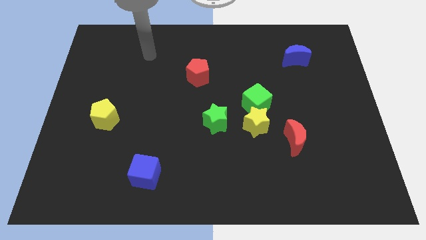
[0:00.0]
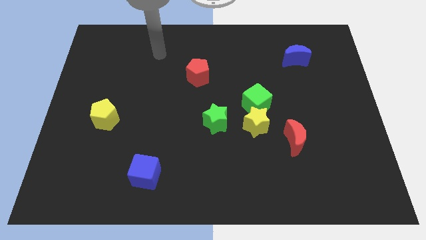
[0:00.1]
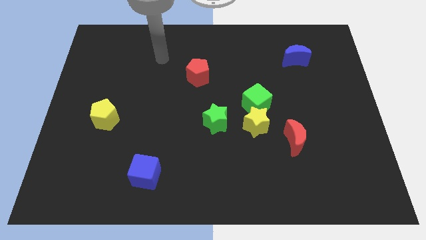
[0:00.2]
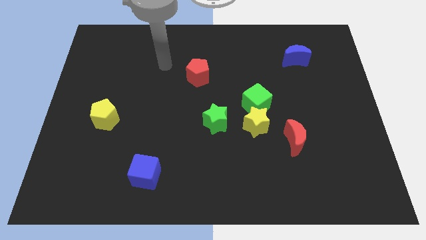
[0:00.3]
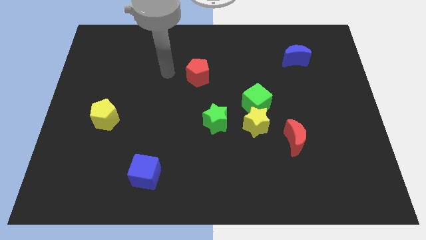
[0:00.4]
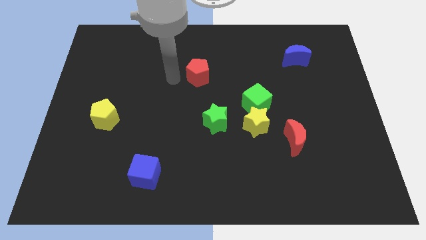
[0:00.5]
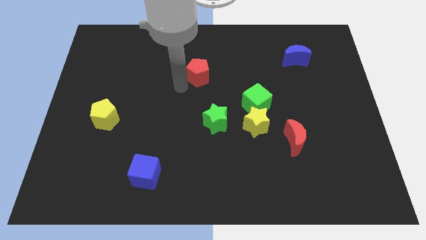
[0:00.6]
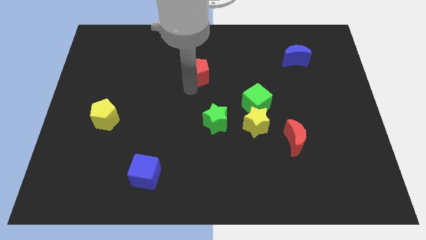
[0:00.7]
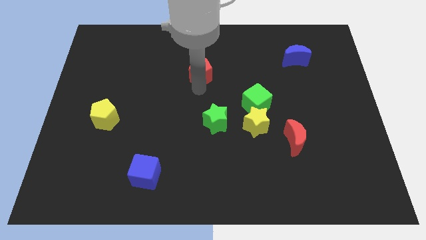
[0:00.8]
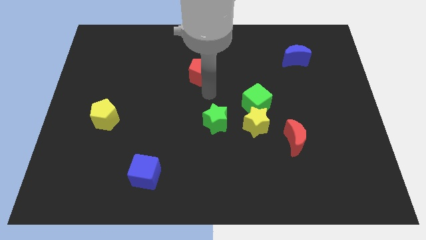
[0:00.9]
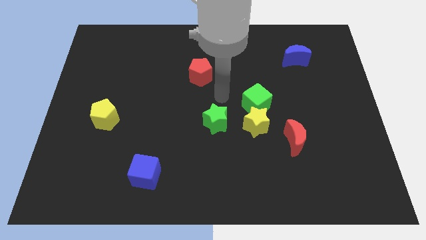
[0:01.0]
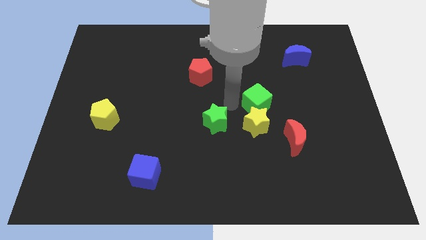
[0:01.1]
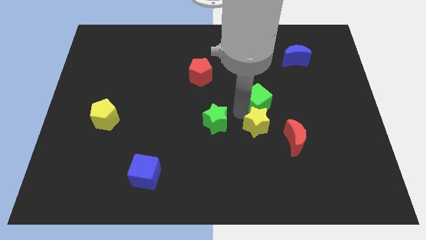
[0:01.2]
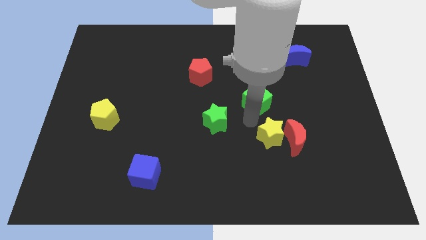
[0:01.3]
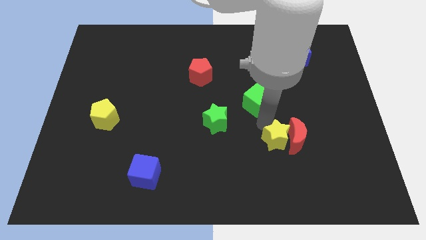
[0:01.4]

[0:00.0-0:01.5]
move the green cube away from the yellow star

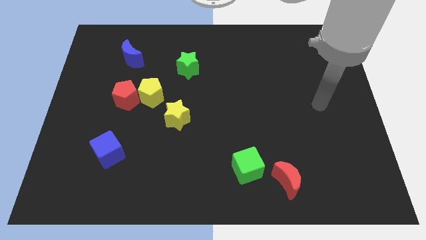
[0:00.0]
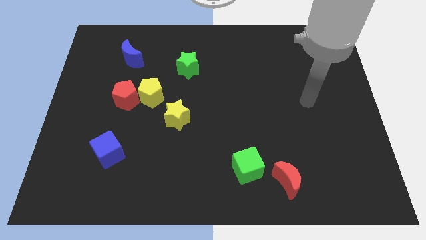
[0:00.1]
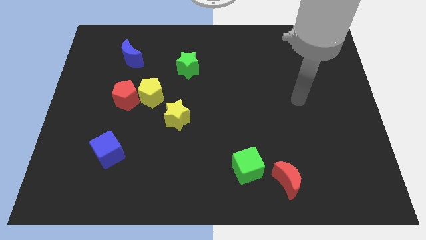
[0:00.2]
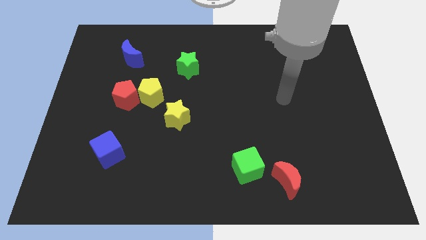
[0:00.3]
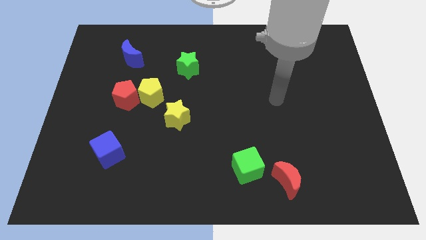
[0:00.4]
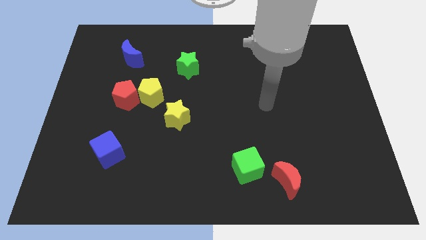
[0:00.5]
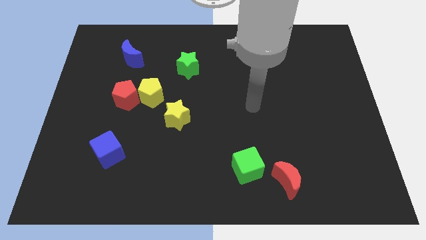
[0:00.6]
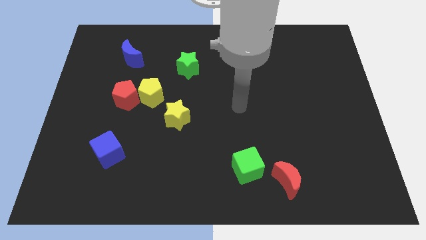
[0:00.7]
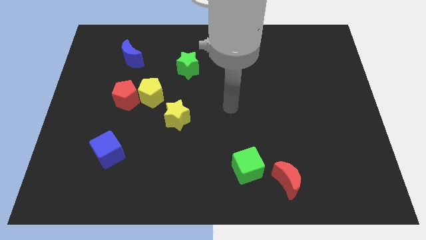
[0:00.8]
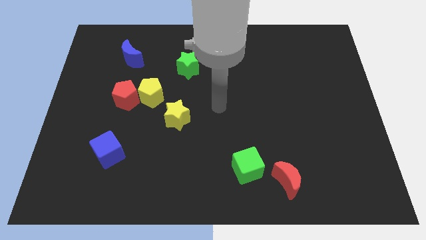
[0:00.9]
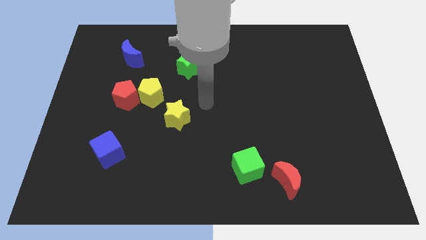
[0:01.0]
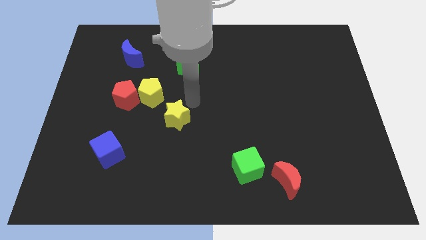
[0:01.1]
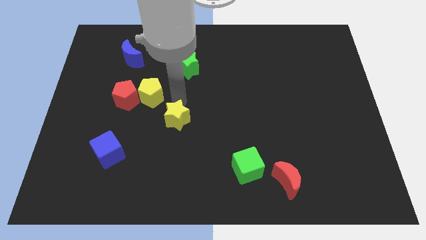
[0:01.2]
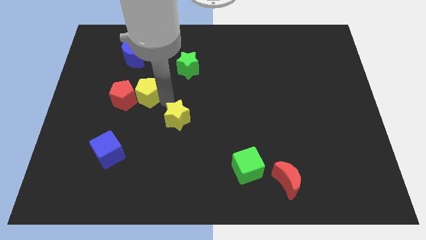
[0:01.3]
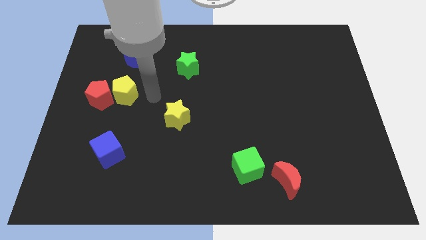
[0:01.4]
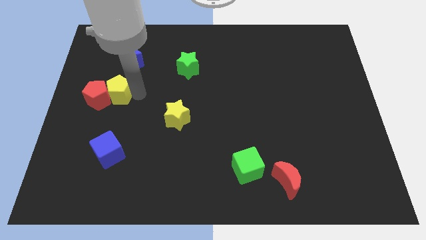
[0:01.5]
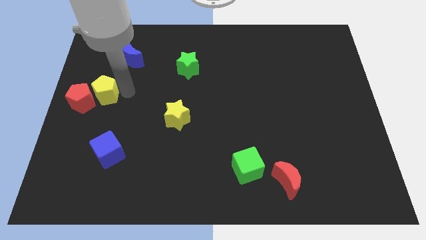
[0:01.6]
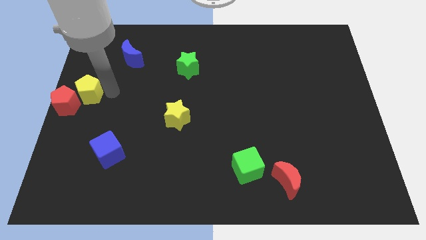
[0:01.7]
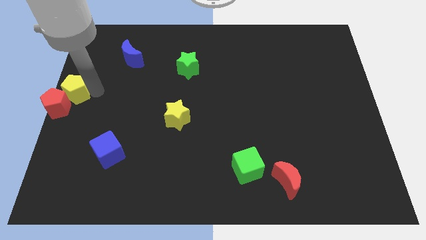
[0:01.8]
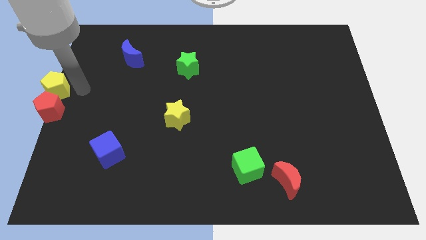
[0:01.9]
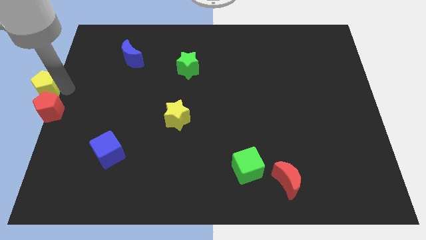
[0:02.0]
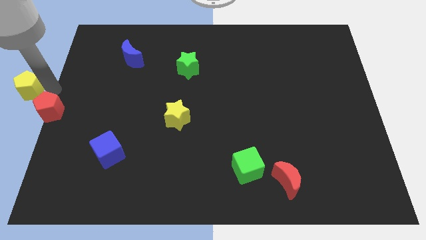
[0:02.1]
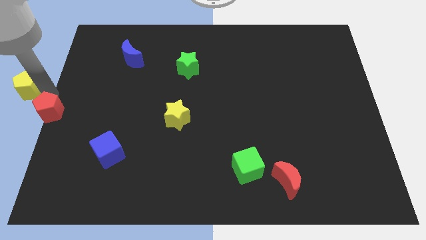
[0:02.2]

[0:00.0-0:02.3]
move the red pentagon away from the yellow pentagon

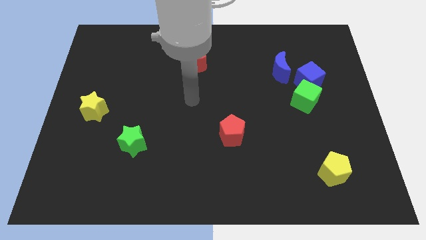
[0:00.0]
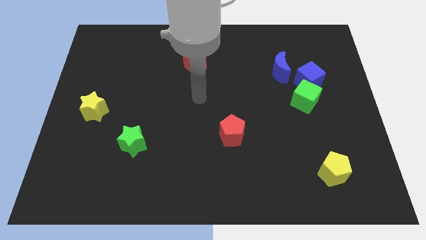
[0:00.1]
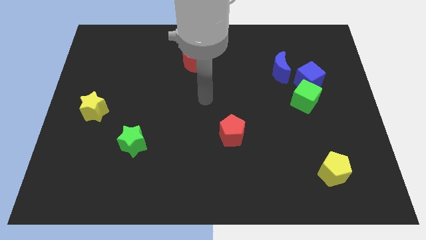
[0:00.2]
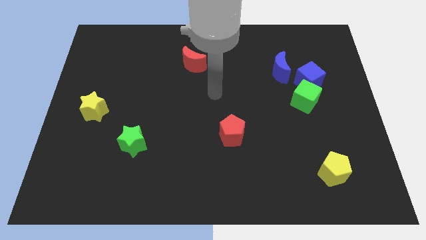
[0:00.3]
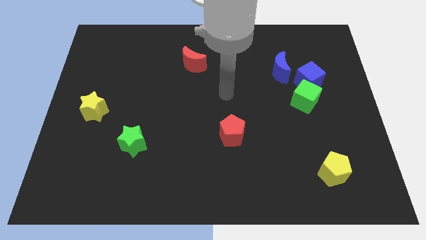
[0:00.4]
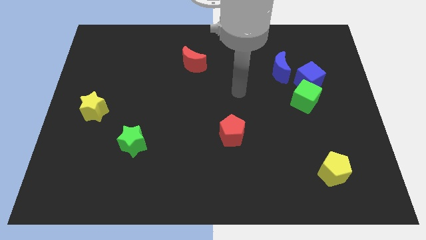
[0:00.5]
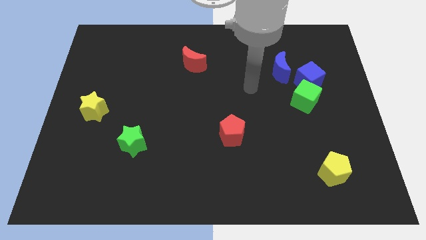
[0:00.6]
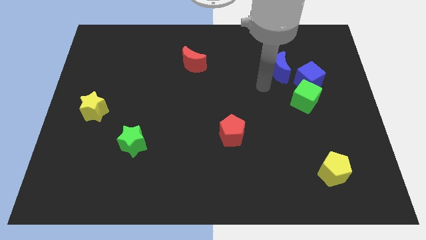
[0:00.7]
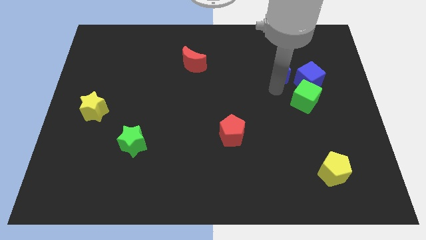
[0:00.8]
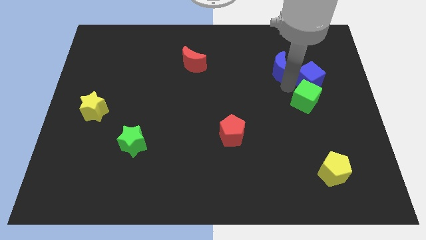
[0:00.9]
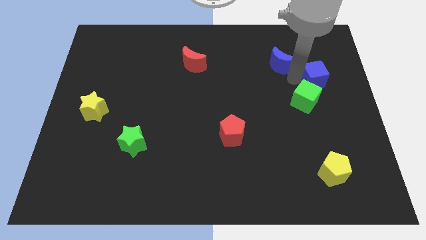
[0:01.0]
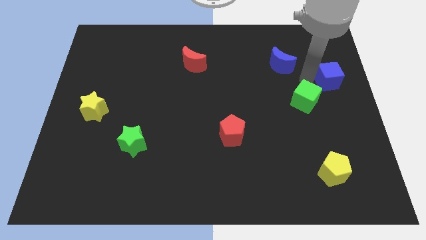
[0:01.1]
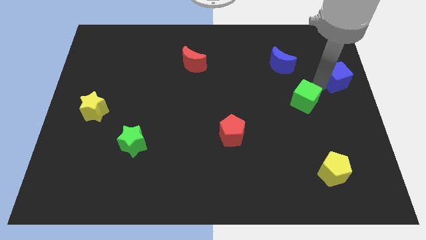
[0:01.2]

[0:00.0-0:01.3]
move the green cube away from the blue cube

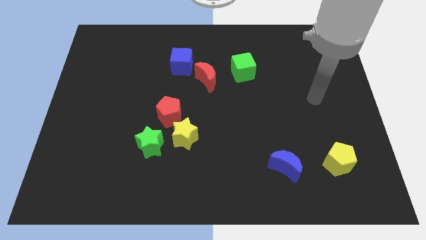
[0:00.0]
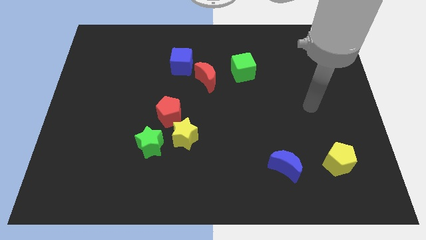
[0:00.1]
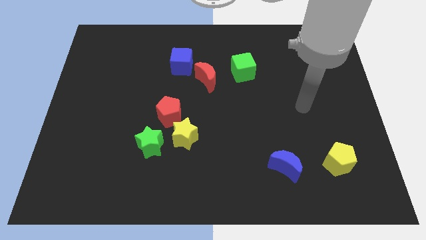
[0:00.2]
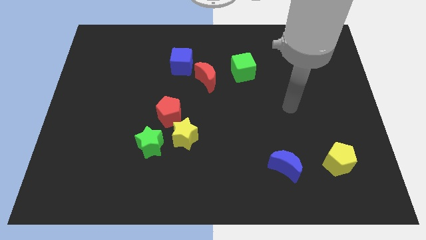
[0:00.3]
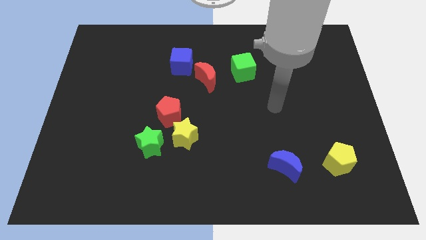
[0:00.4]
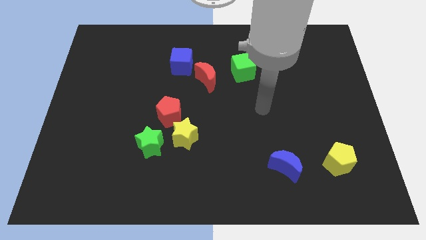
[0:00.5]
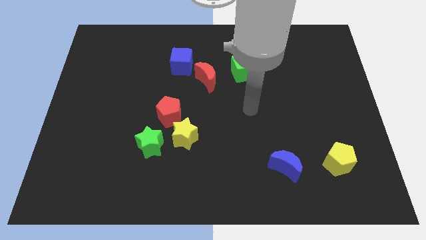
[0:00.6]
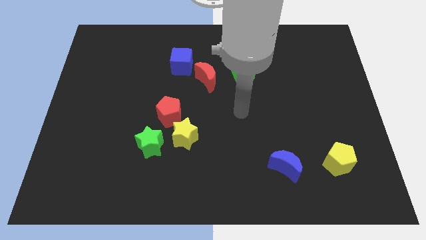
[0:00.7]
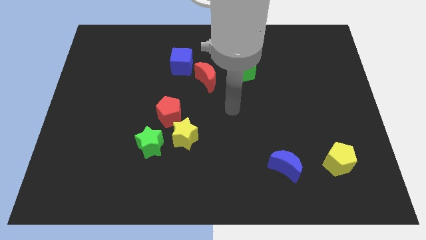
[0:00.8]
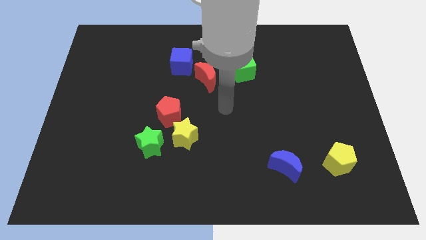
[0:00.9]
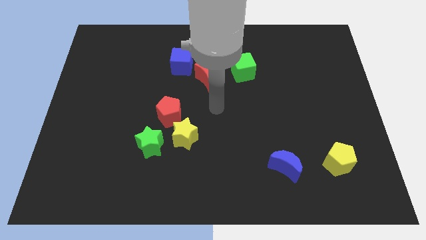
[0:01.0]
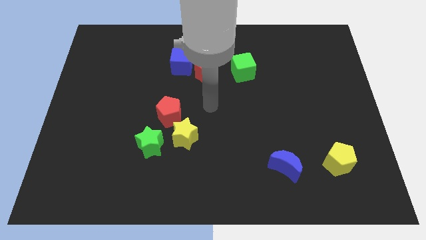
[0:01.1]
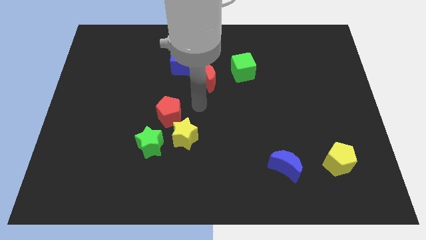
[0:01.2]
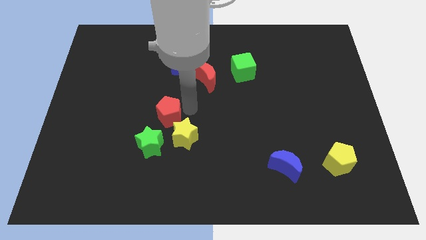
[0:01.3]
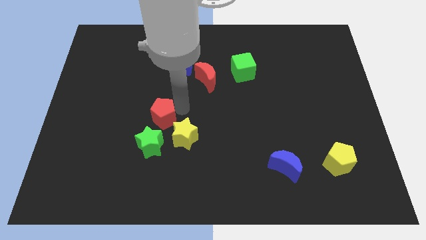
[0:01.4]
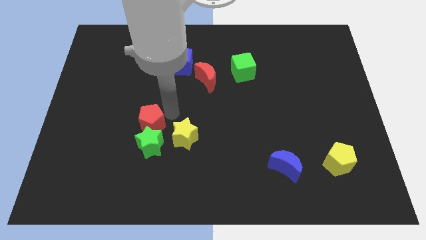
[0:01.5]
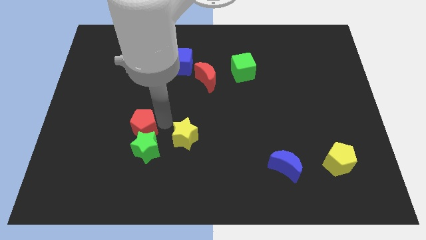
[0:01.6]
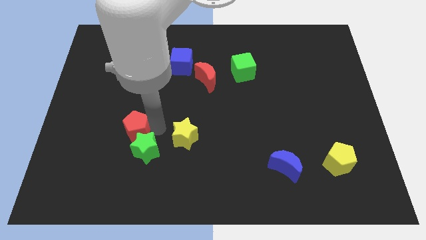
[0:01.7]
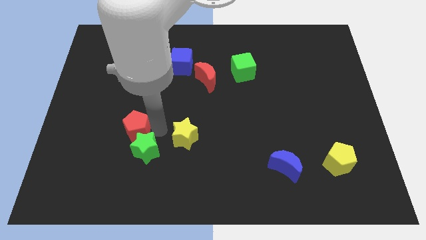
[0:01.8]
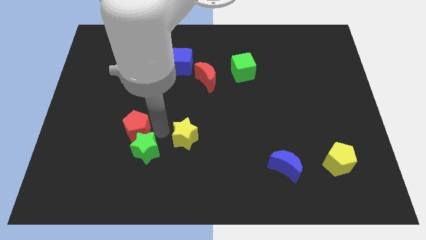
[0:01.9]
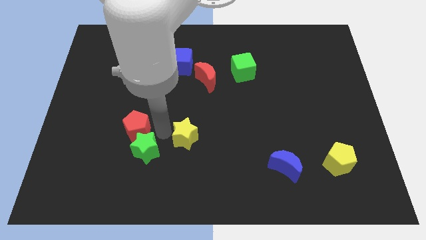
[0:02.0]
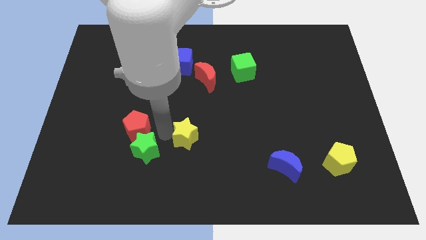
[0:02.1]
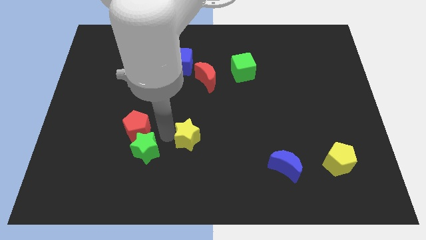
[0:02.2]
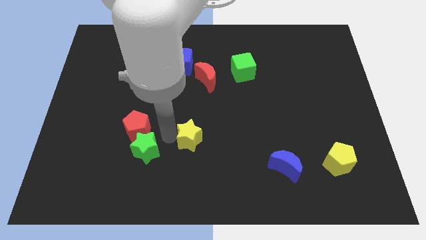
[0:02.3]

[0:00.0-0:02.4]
move the yellow star away from the red pentagon and green star

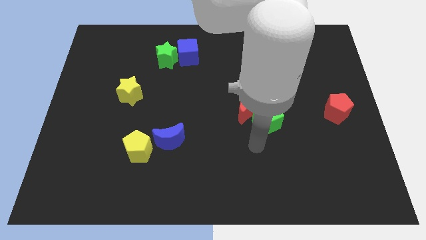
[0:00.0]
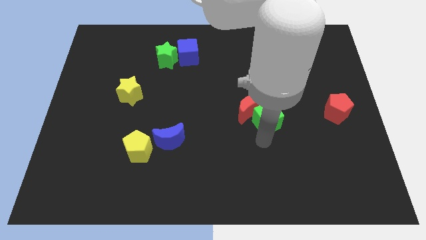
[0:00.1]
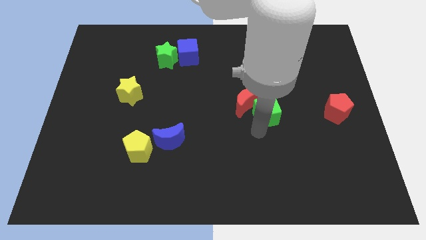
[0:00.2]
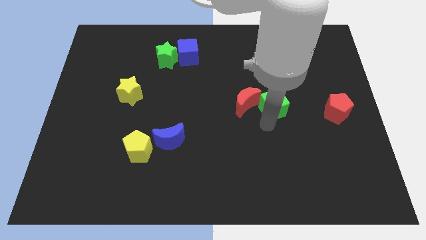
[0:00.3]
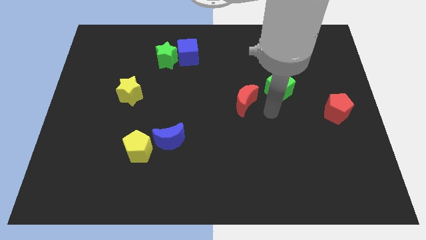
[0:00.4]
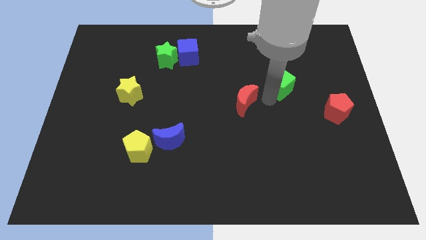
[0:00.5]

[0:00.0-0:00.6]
move the red moon away from the green cube

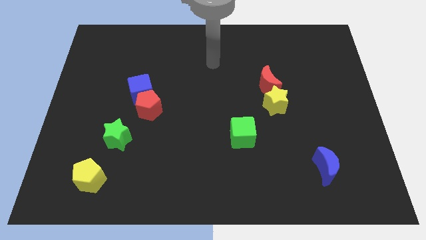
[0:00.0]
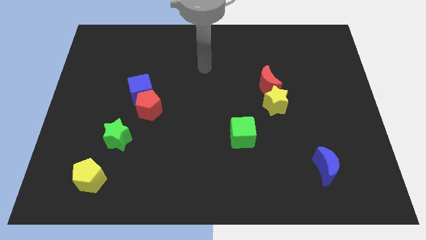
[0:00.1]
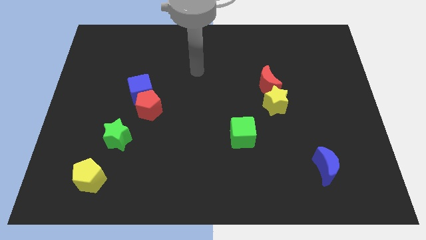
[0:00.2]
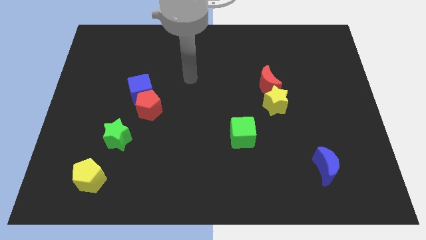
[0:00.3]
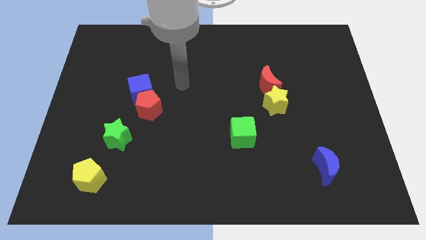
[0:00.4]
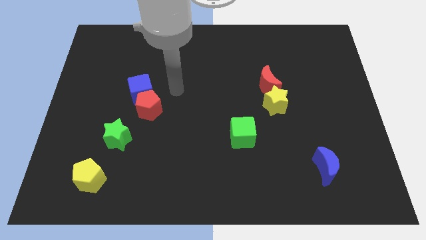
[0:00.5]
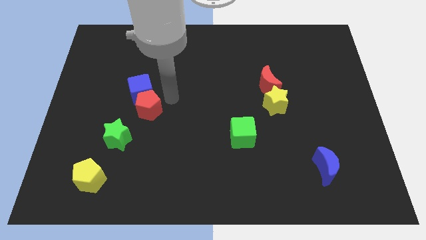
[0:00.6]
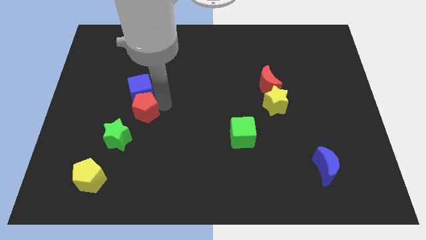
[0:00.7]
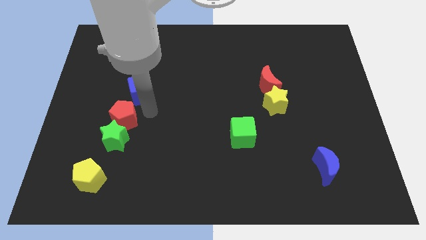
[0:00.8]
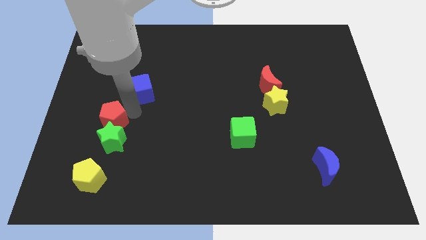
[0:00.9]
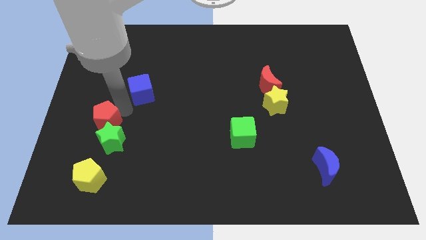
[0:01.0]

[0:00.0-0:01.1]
move the blue cube away from the red pentagon

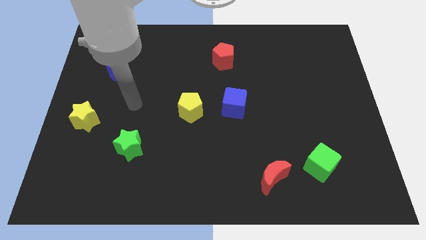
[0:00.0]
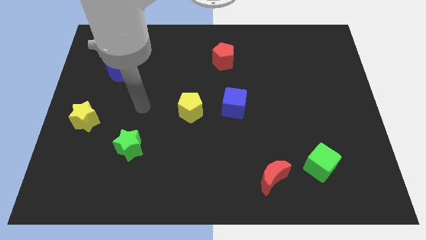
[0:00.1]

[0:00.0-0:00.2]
move the blue cube away from the yellow pentagon
